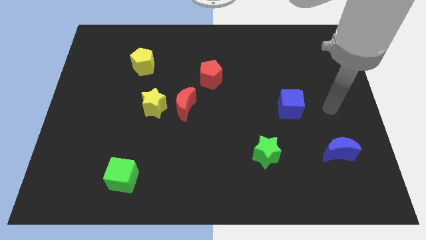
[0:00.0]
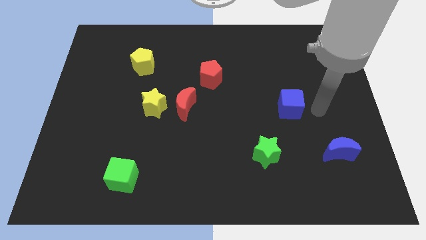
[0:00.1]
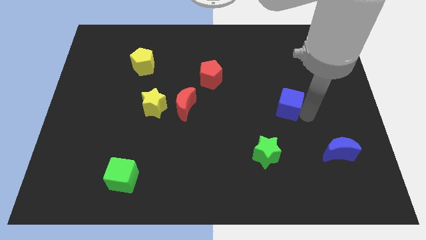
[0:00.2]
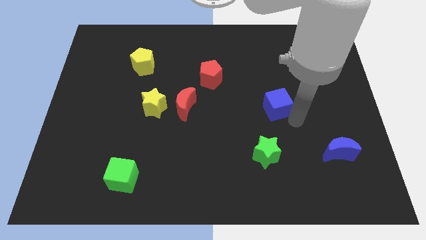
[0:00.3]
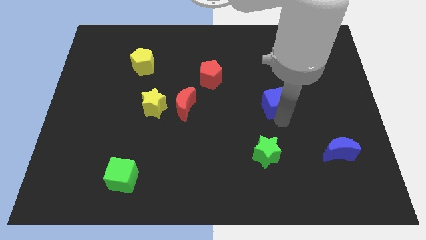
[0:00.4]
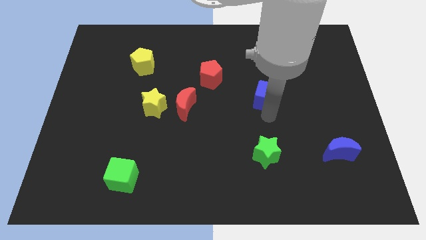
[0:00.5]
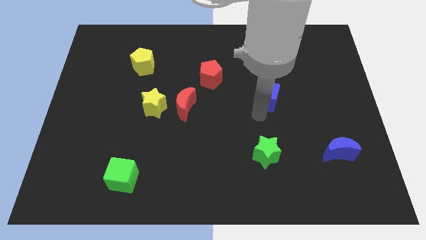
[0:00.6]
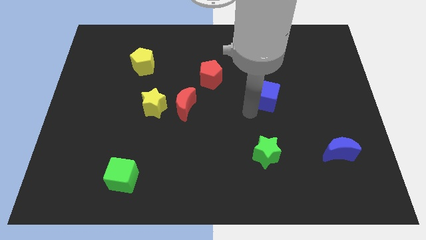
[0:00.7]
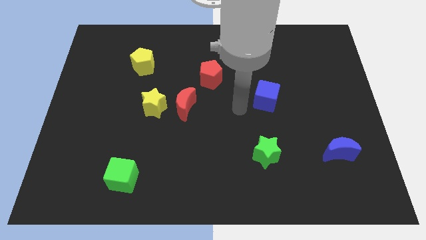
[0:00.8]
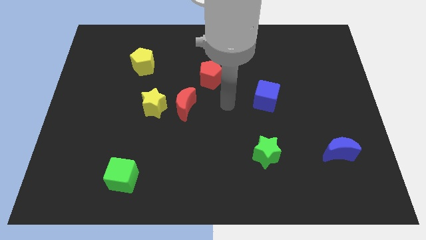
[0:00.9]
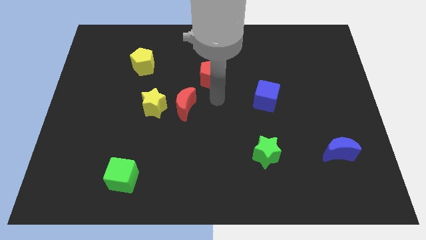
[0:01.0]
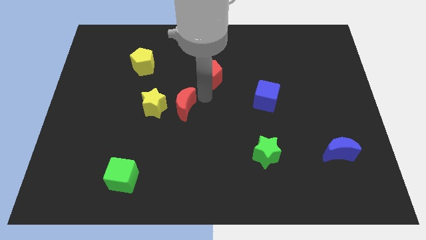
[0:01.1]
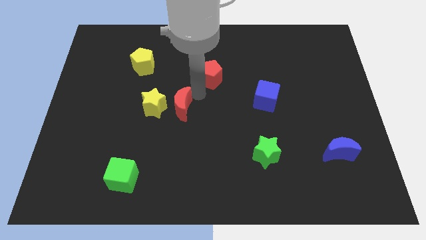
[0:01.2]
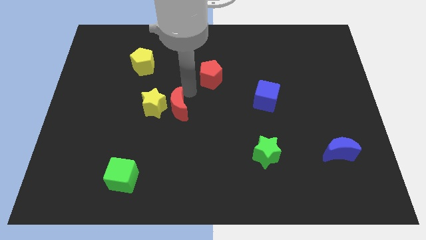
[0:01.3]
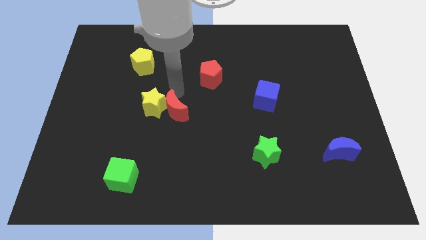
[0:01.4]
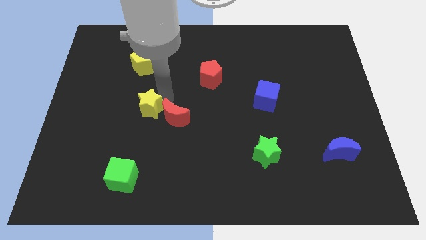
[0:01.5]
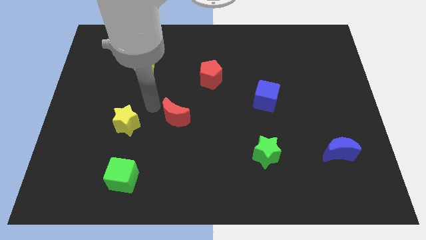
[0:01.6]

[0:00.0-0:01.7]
separate the red moon from the yellow star

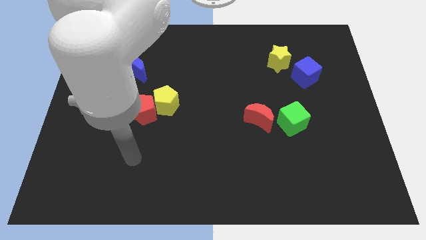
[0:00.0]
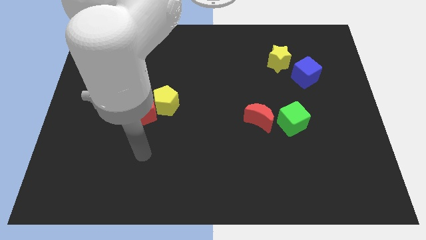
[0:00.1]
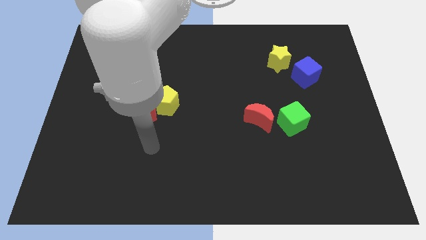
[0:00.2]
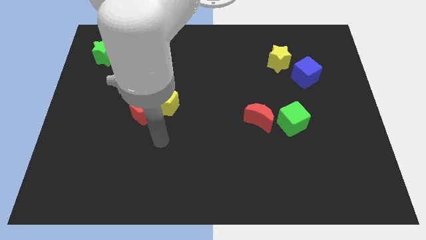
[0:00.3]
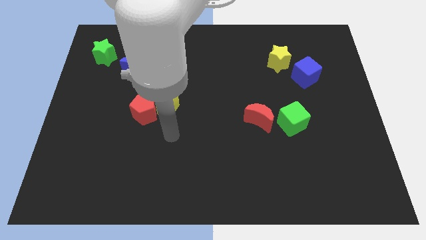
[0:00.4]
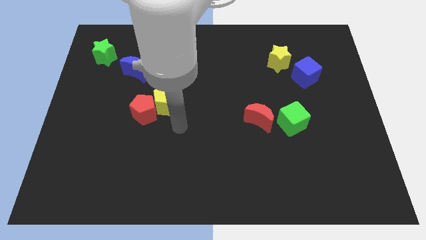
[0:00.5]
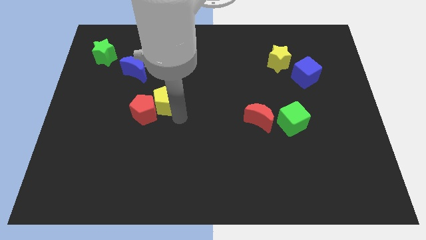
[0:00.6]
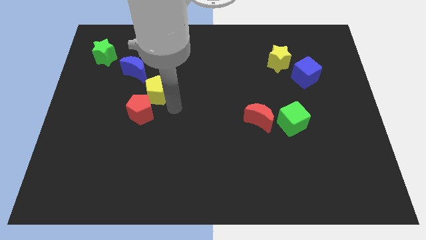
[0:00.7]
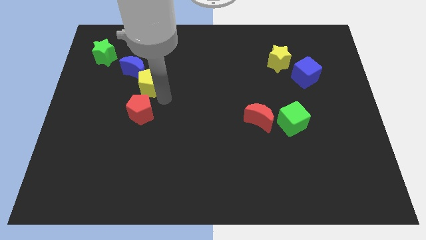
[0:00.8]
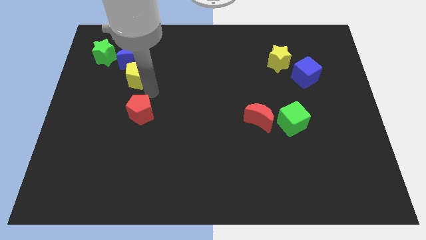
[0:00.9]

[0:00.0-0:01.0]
pull the red pentagon apart from the yellow pentagon

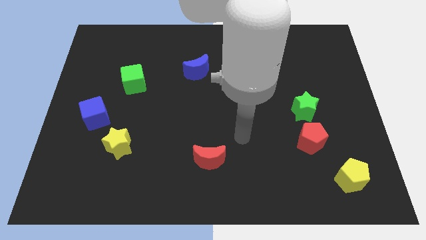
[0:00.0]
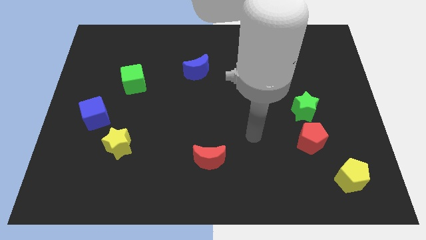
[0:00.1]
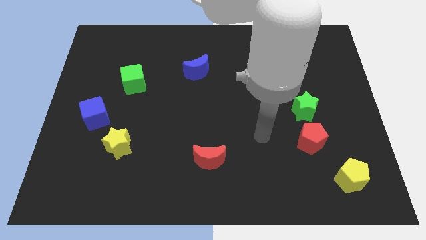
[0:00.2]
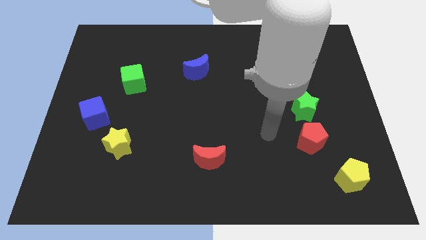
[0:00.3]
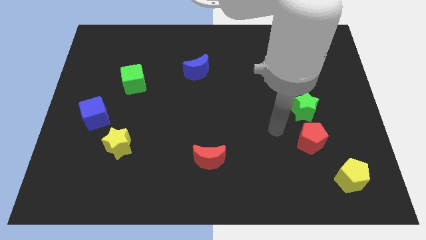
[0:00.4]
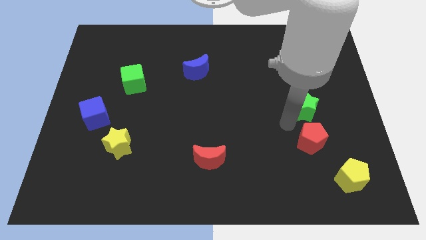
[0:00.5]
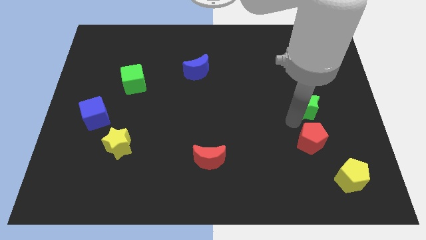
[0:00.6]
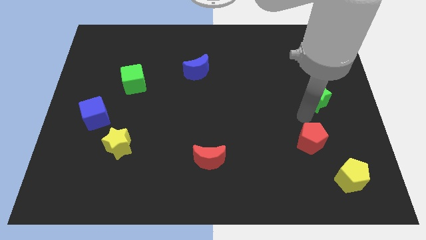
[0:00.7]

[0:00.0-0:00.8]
move the red pentagon away from the green star

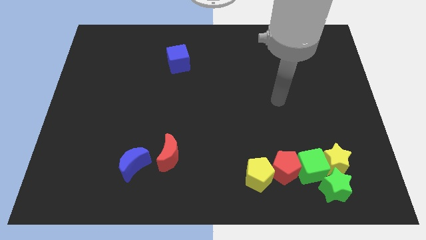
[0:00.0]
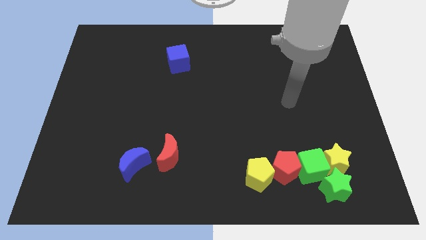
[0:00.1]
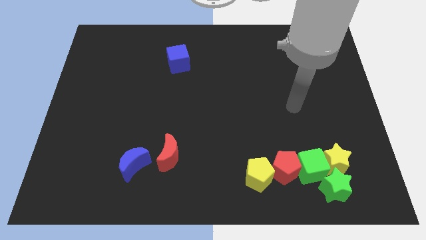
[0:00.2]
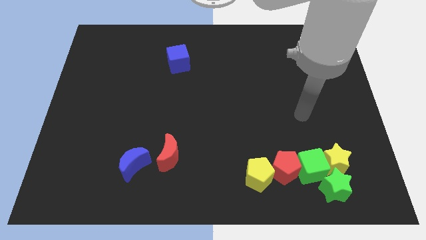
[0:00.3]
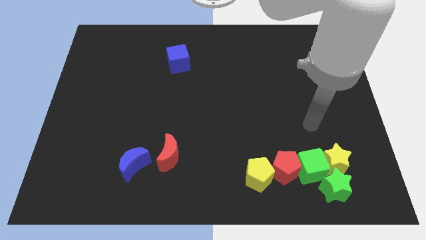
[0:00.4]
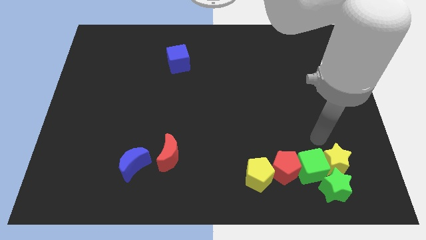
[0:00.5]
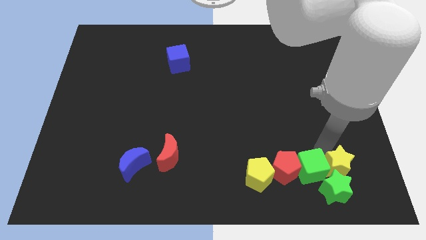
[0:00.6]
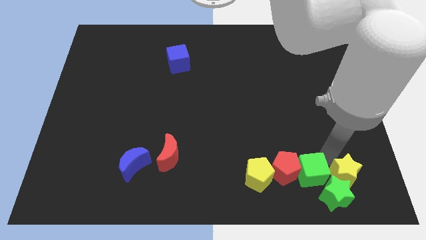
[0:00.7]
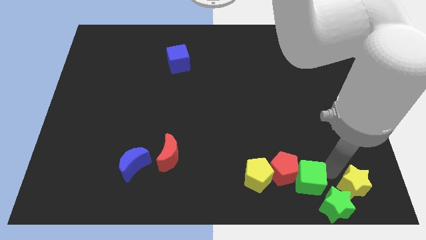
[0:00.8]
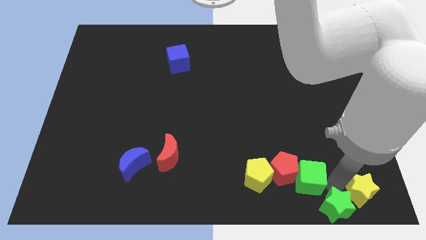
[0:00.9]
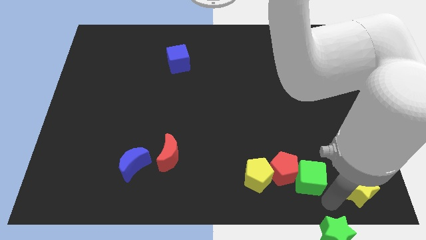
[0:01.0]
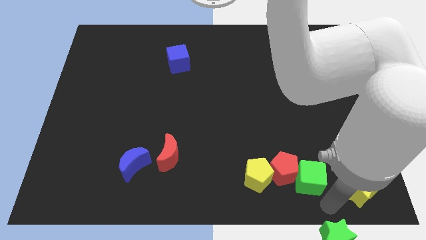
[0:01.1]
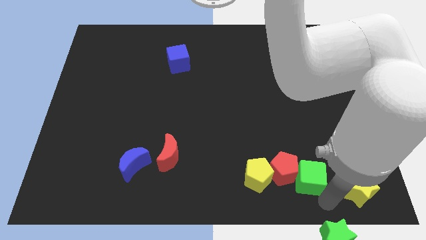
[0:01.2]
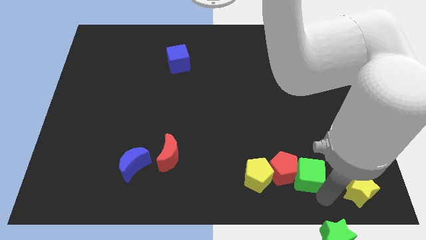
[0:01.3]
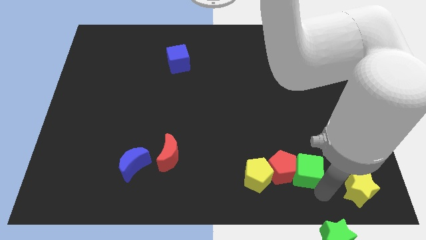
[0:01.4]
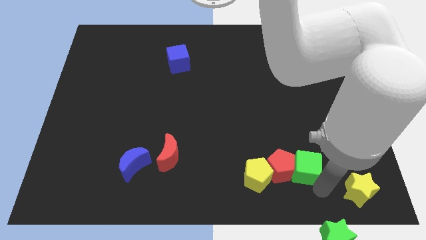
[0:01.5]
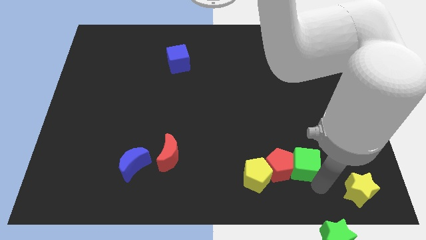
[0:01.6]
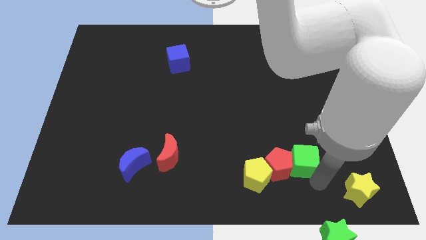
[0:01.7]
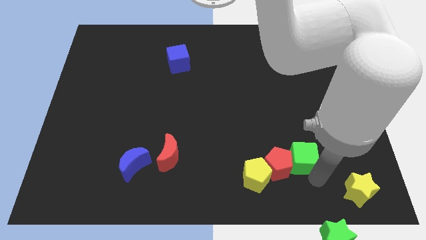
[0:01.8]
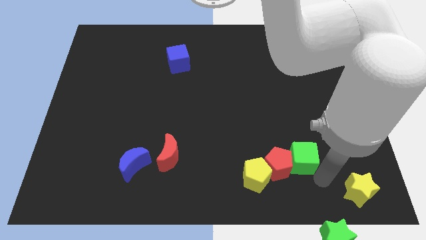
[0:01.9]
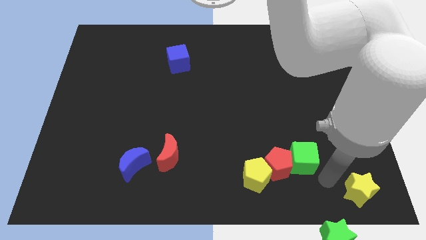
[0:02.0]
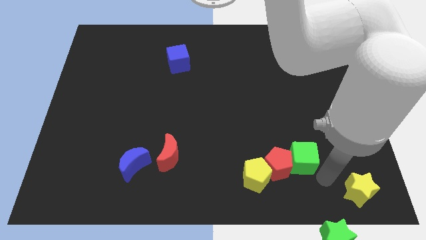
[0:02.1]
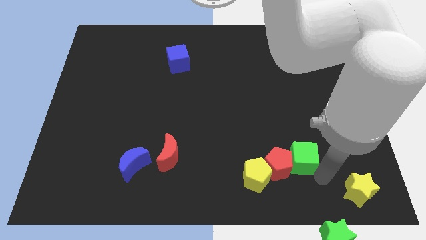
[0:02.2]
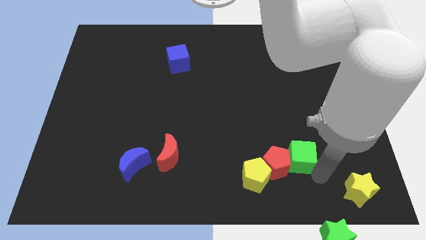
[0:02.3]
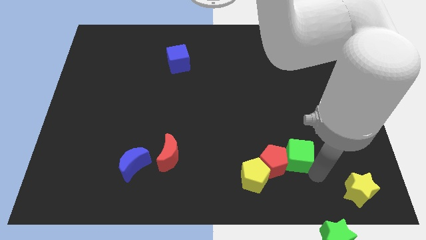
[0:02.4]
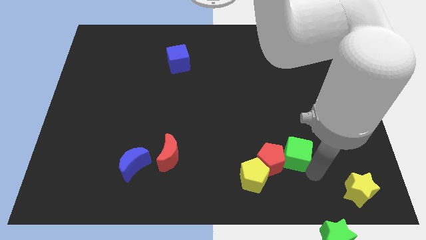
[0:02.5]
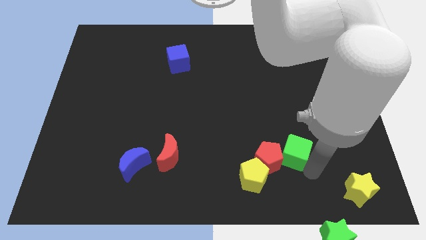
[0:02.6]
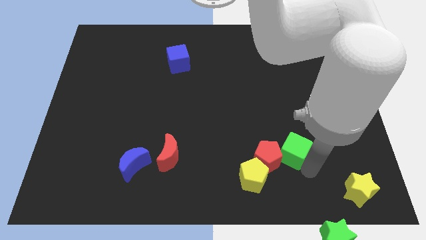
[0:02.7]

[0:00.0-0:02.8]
move the green cube away from the yellow star, red pentagon, and green star

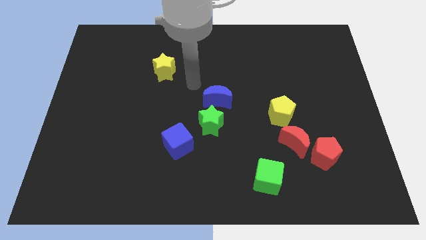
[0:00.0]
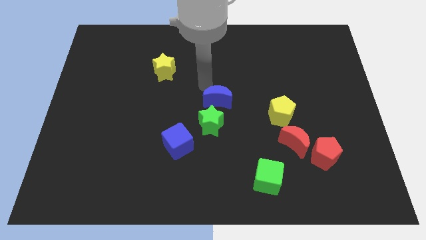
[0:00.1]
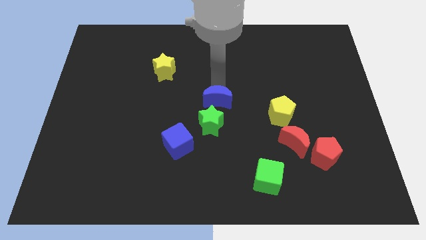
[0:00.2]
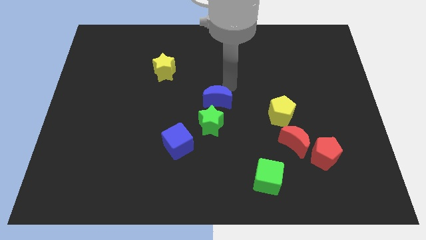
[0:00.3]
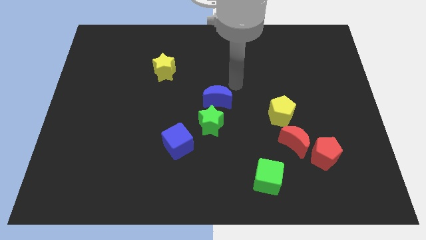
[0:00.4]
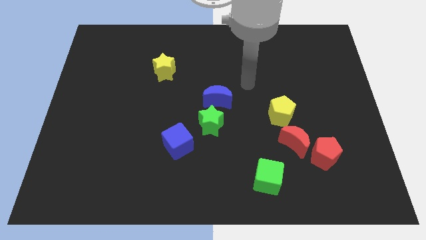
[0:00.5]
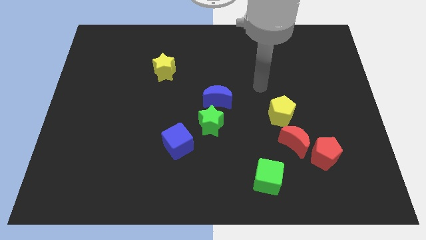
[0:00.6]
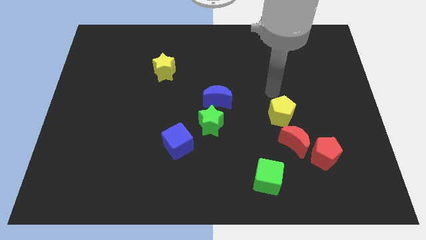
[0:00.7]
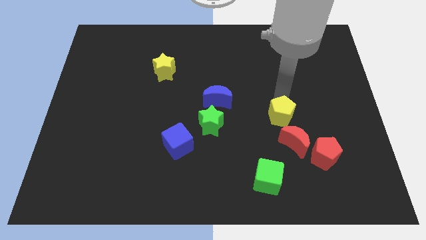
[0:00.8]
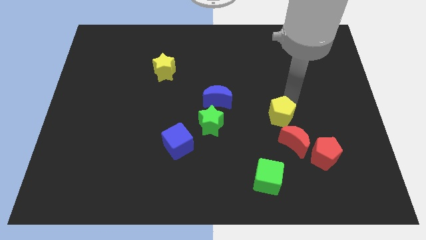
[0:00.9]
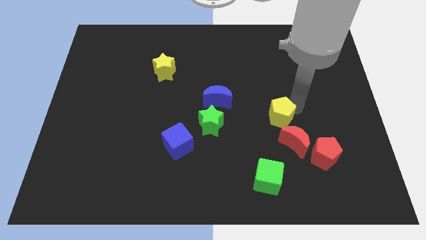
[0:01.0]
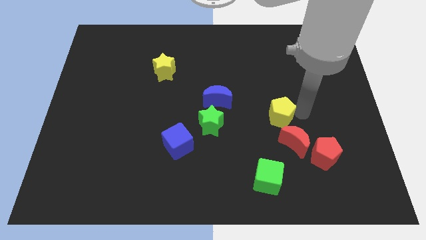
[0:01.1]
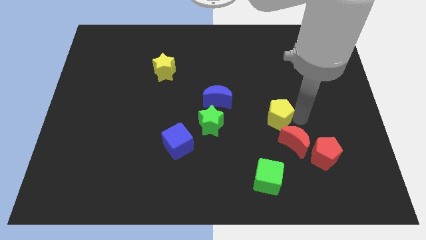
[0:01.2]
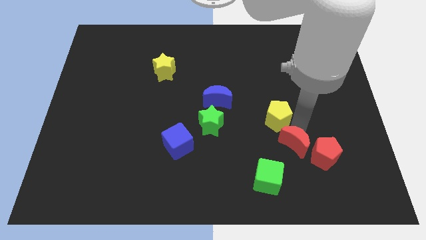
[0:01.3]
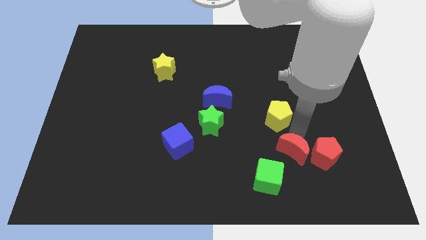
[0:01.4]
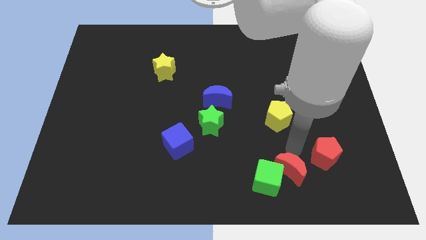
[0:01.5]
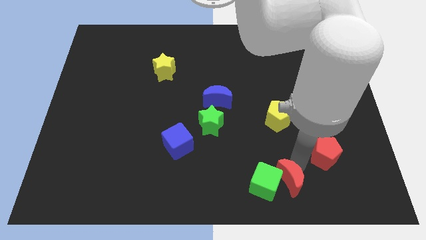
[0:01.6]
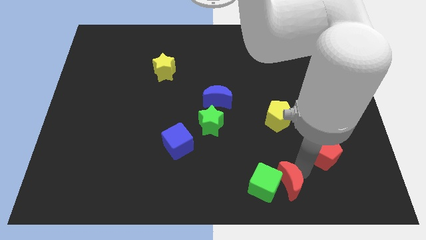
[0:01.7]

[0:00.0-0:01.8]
pull the red pentagon apart from the red moon

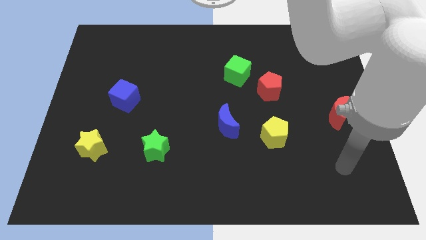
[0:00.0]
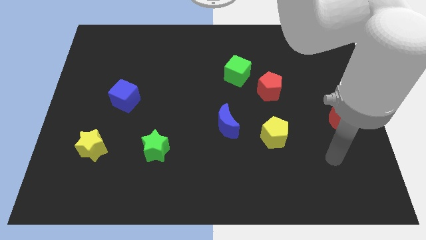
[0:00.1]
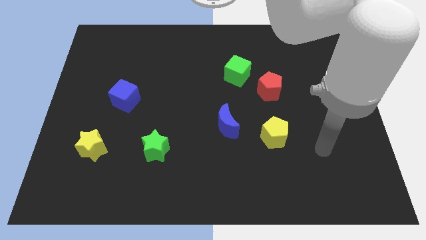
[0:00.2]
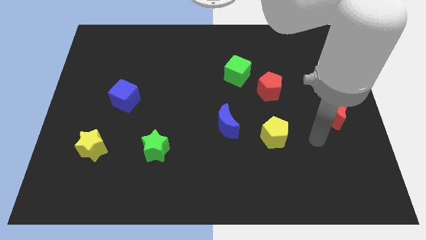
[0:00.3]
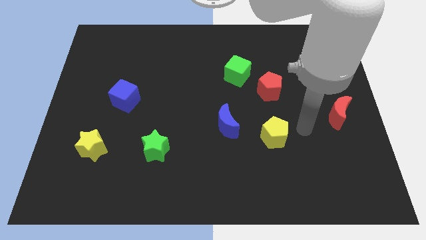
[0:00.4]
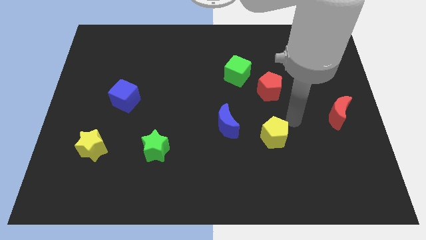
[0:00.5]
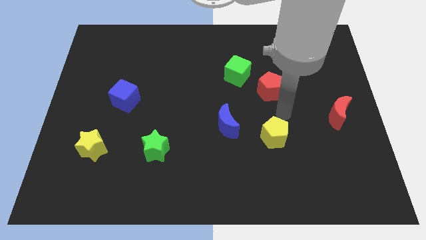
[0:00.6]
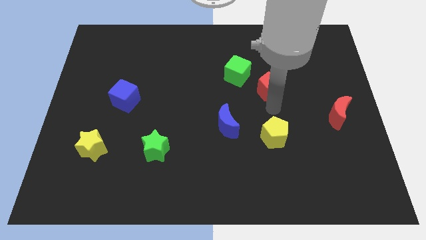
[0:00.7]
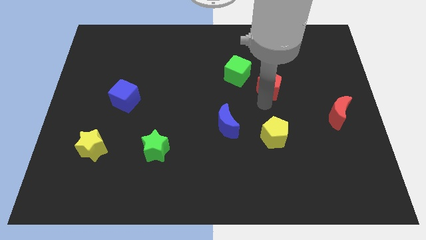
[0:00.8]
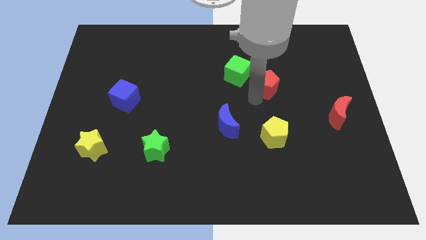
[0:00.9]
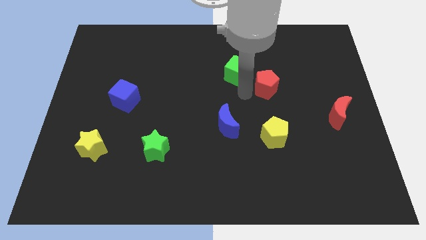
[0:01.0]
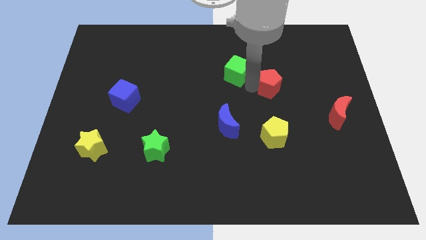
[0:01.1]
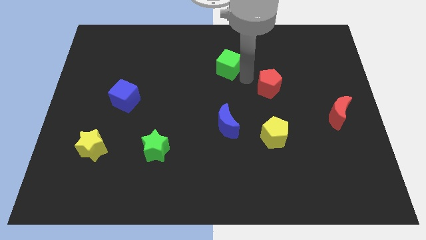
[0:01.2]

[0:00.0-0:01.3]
move the red pentagon away from the green cube
